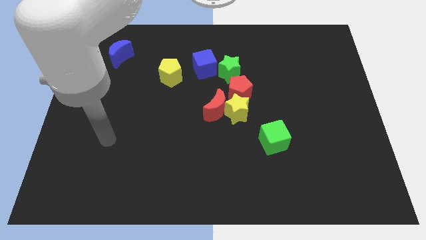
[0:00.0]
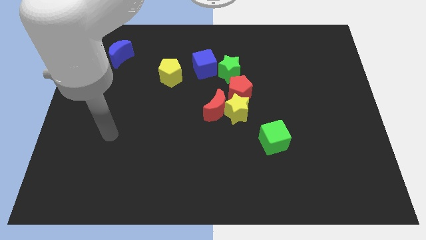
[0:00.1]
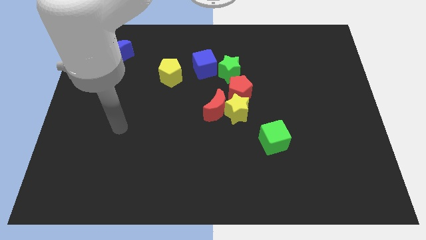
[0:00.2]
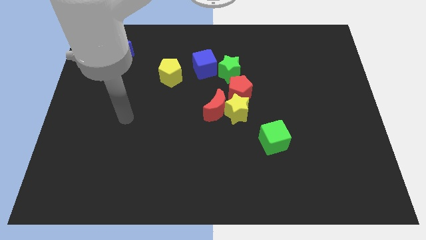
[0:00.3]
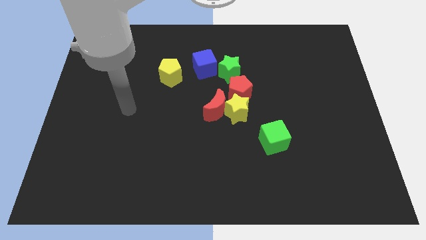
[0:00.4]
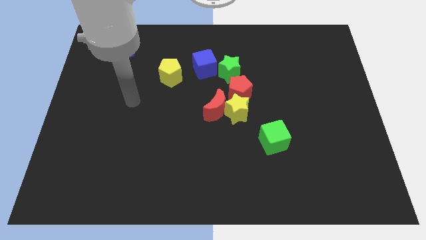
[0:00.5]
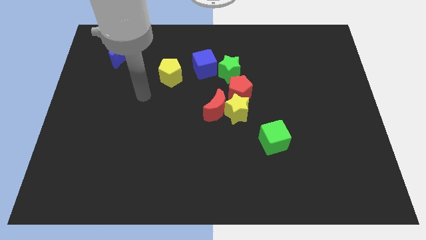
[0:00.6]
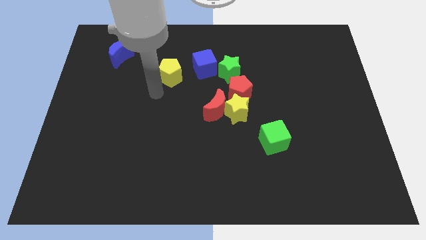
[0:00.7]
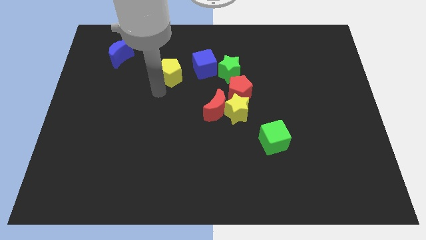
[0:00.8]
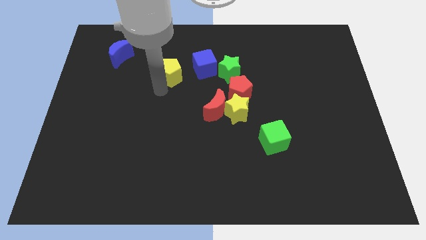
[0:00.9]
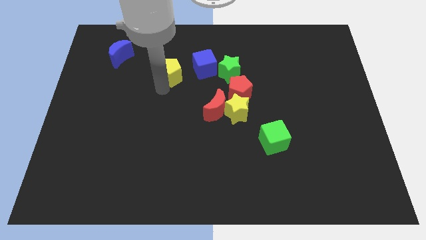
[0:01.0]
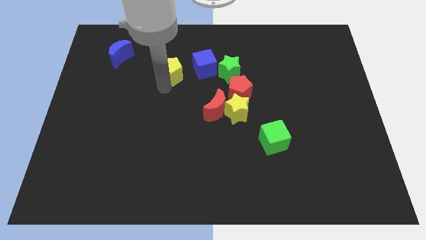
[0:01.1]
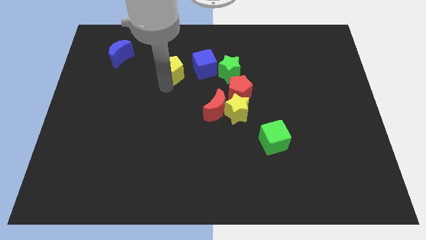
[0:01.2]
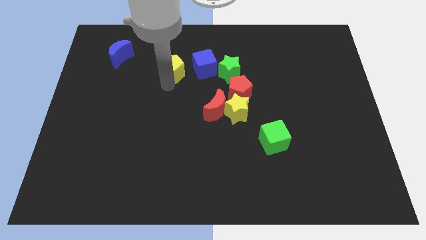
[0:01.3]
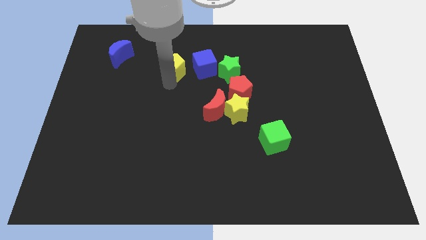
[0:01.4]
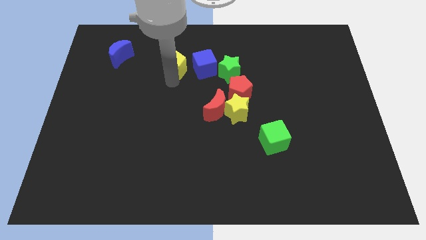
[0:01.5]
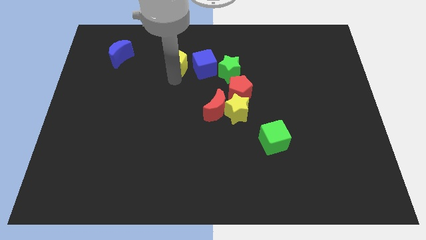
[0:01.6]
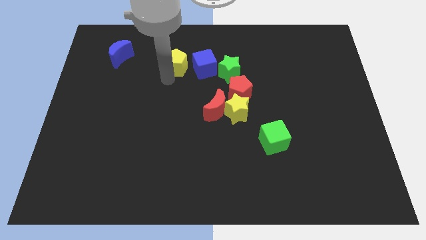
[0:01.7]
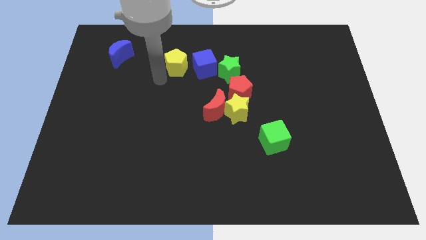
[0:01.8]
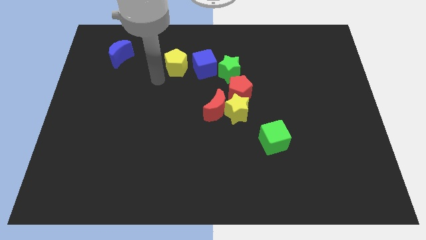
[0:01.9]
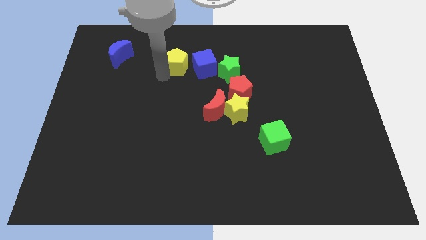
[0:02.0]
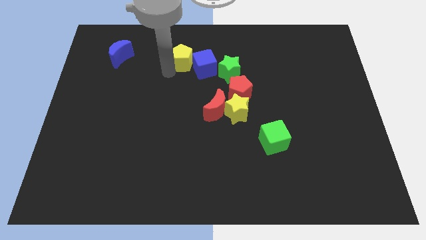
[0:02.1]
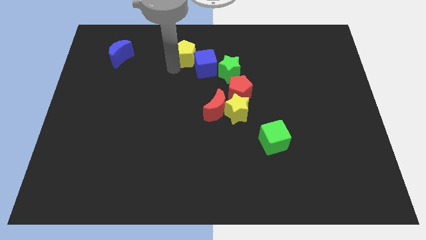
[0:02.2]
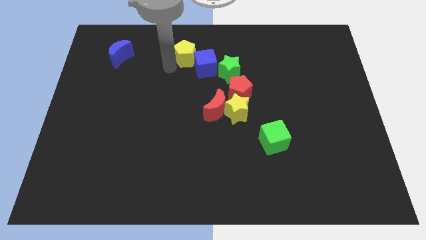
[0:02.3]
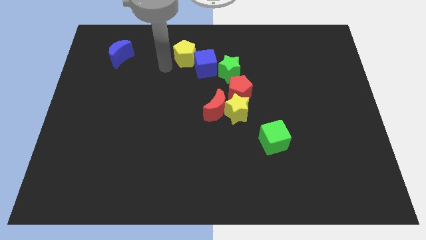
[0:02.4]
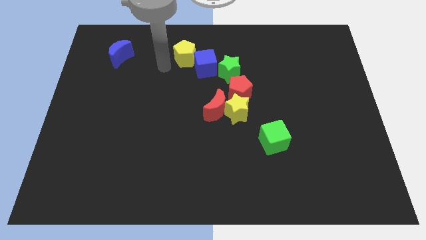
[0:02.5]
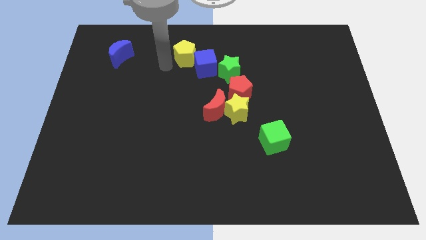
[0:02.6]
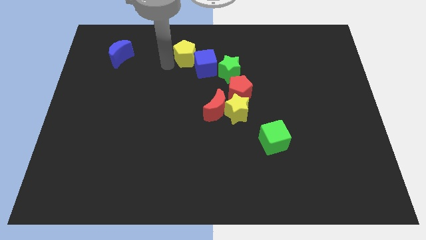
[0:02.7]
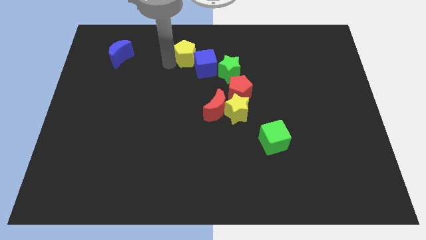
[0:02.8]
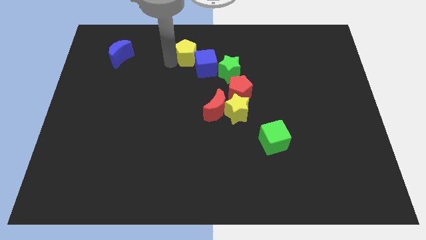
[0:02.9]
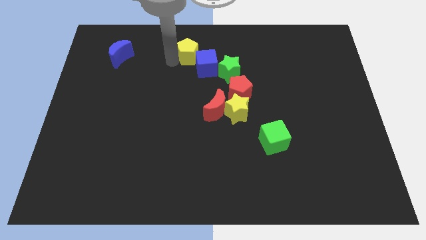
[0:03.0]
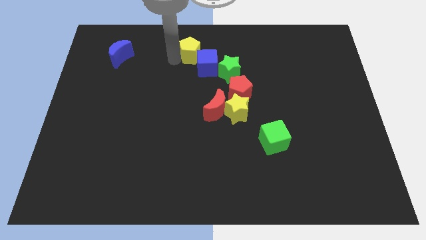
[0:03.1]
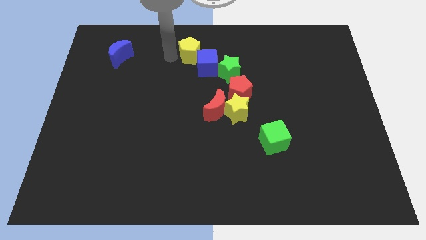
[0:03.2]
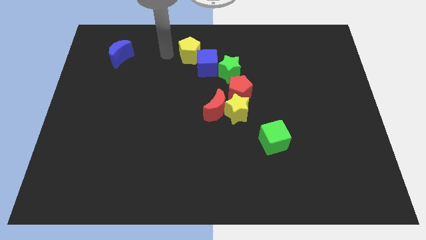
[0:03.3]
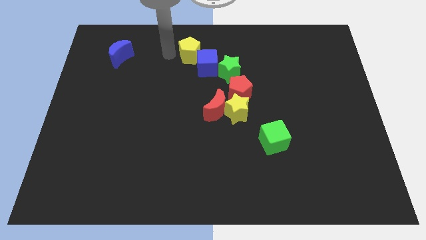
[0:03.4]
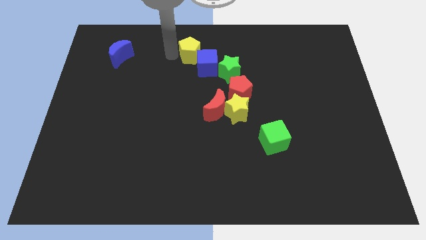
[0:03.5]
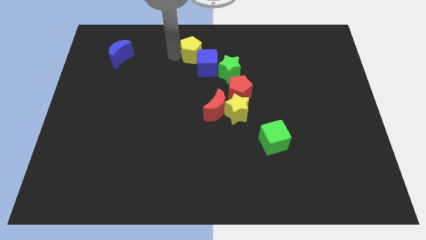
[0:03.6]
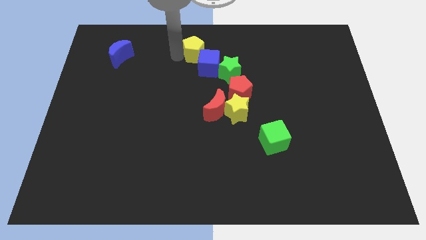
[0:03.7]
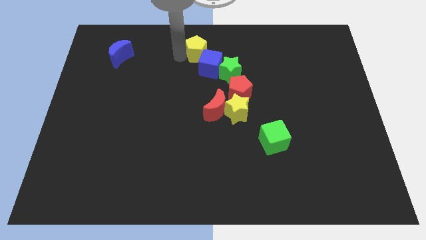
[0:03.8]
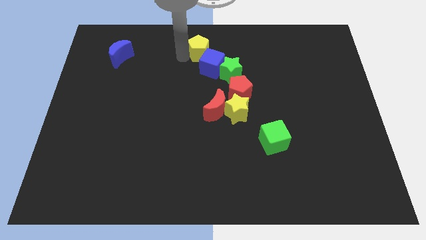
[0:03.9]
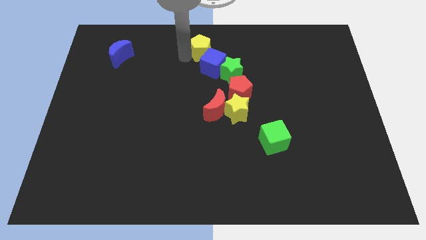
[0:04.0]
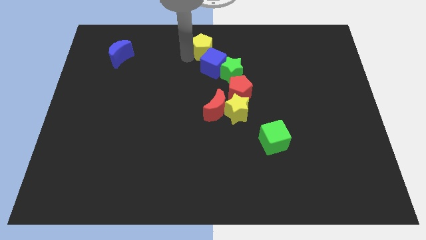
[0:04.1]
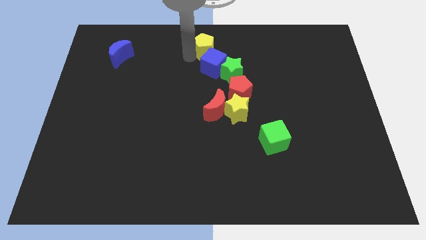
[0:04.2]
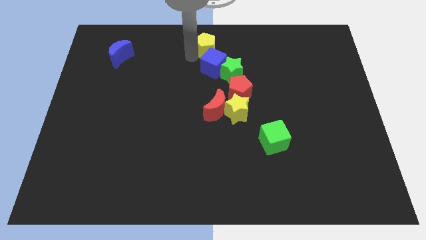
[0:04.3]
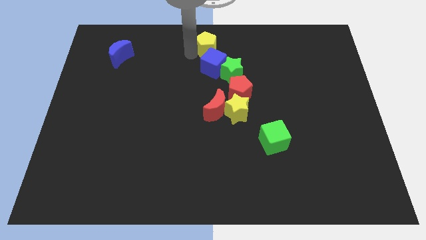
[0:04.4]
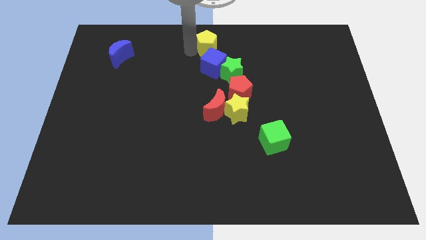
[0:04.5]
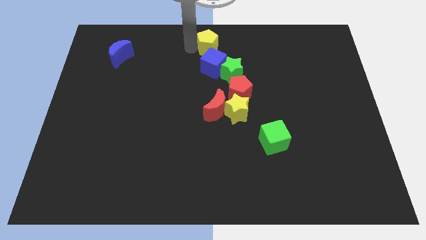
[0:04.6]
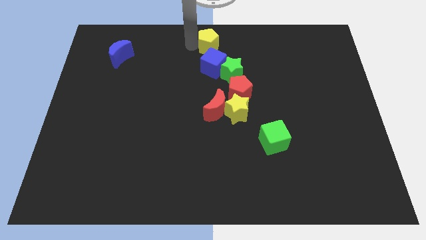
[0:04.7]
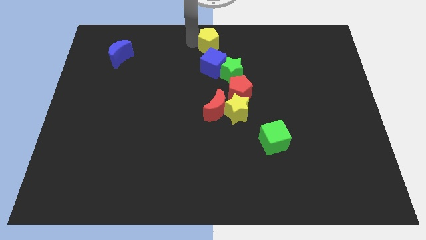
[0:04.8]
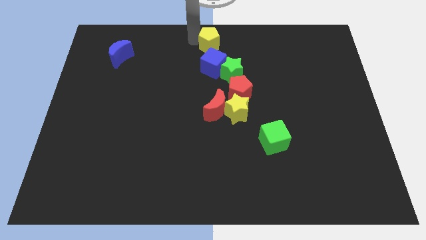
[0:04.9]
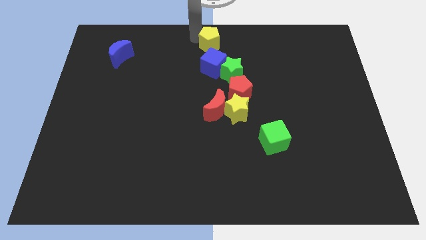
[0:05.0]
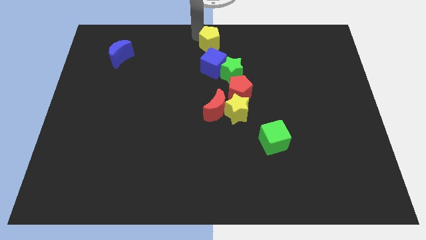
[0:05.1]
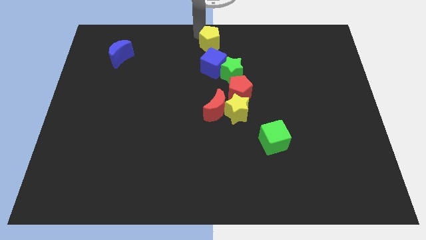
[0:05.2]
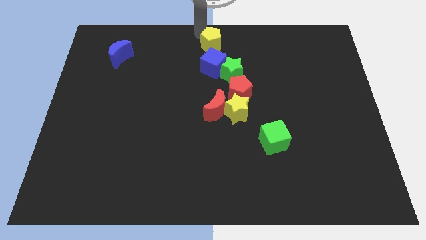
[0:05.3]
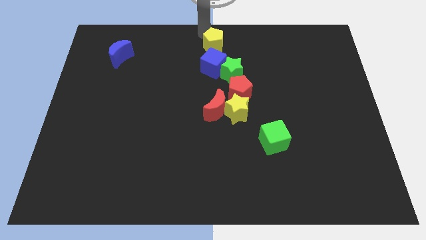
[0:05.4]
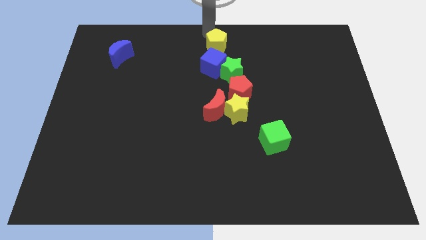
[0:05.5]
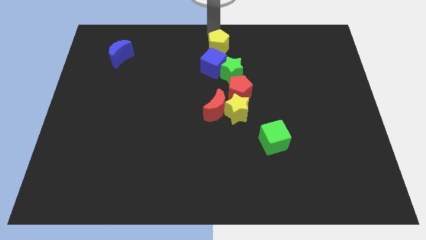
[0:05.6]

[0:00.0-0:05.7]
push the yellow pentagon right a little bit

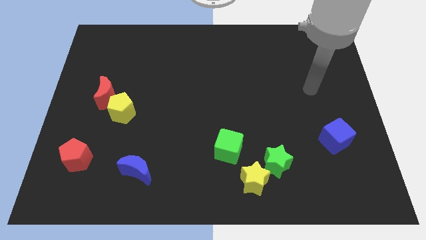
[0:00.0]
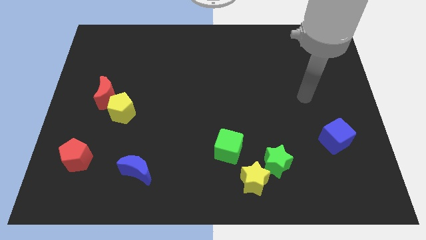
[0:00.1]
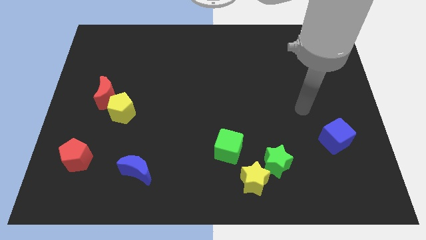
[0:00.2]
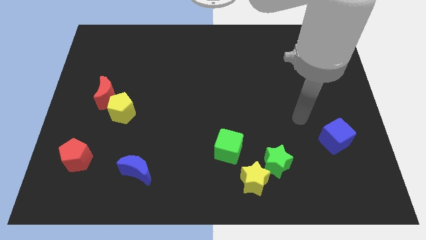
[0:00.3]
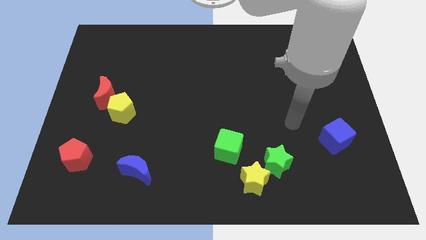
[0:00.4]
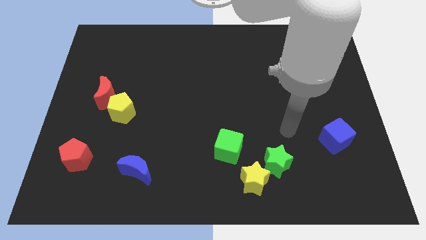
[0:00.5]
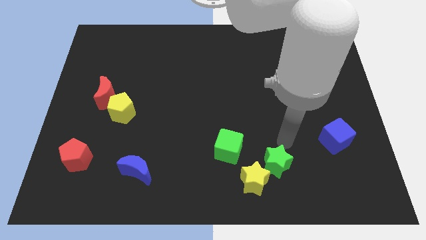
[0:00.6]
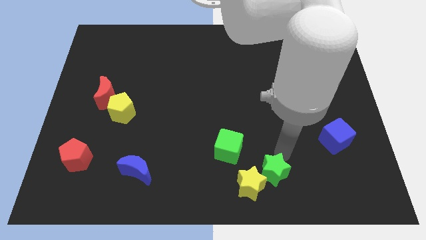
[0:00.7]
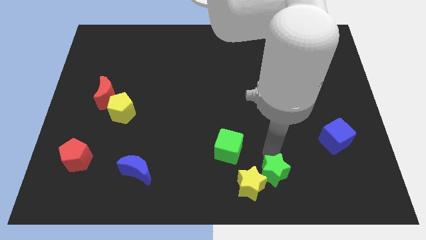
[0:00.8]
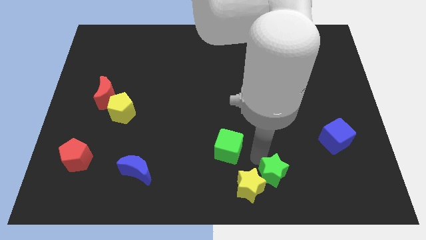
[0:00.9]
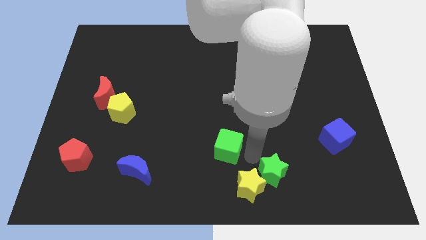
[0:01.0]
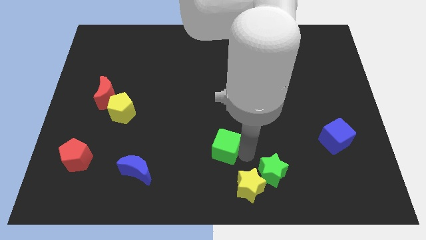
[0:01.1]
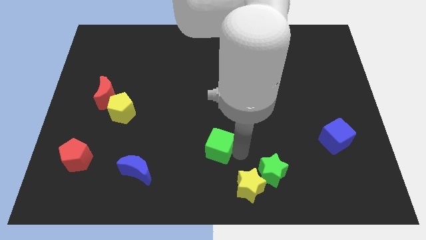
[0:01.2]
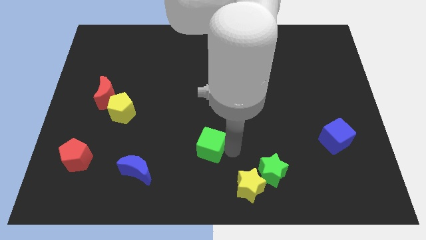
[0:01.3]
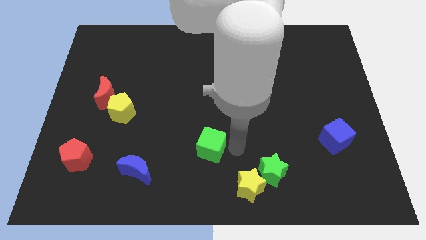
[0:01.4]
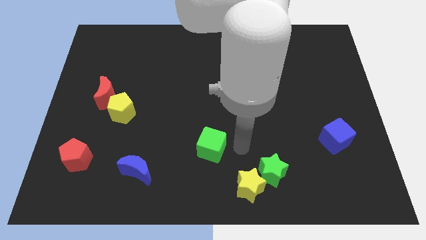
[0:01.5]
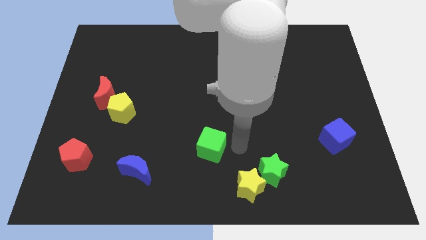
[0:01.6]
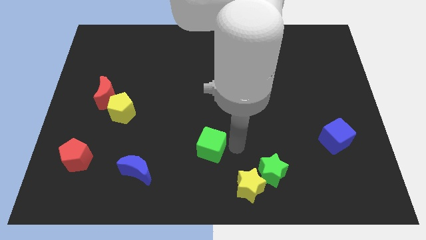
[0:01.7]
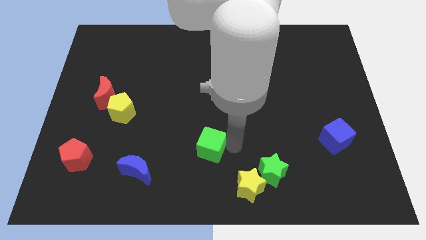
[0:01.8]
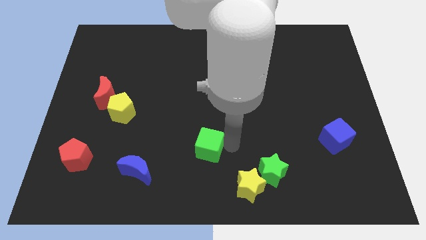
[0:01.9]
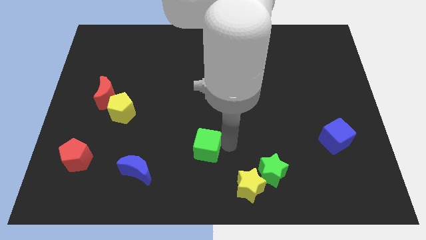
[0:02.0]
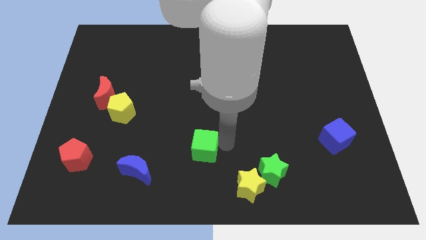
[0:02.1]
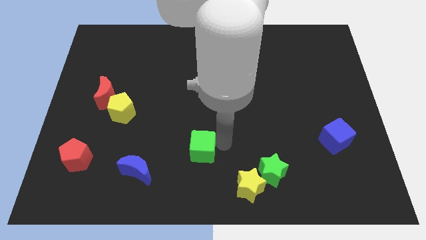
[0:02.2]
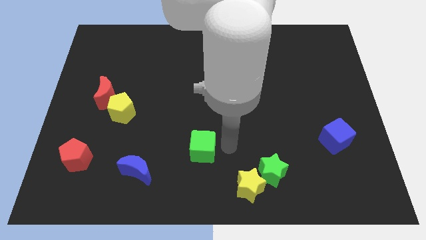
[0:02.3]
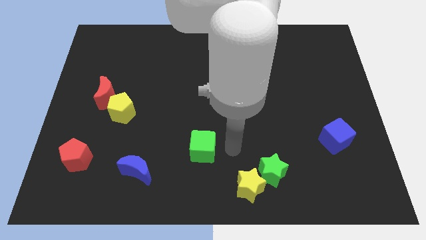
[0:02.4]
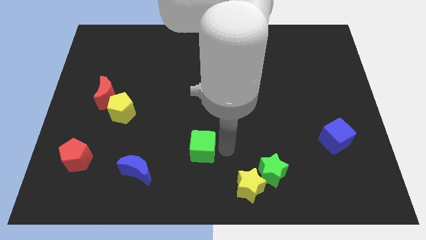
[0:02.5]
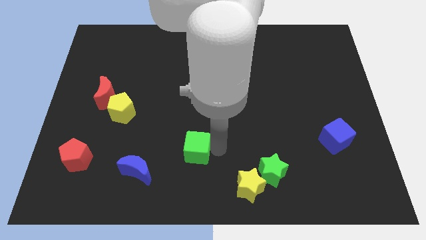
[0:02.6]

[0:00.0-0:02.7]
slightly move the green cube left
